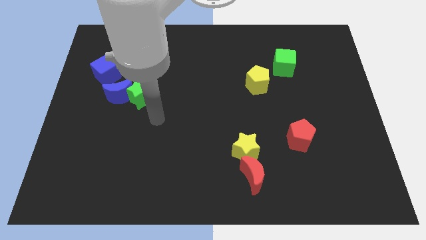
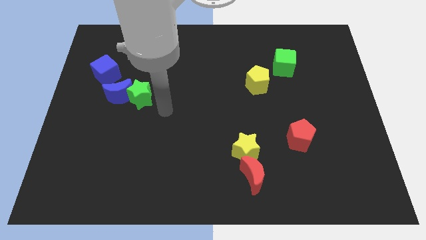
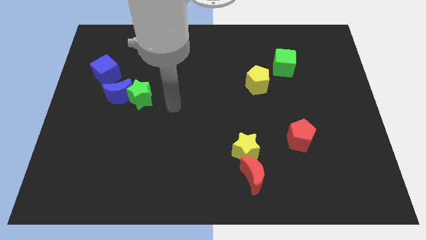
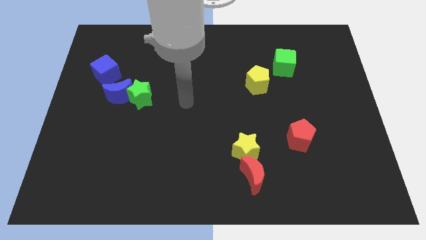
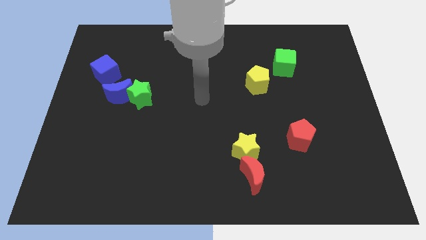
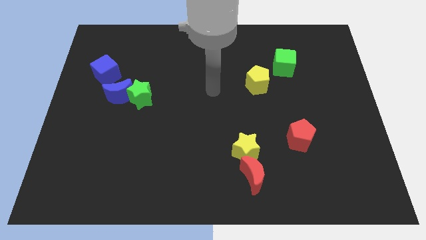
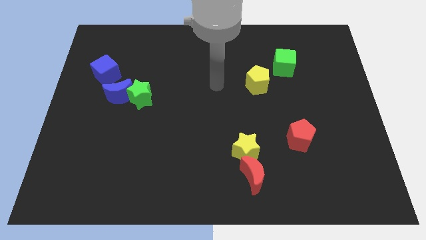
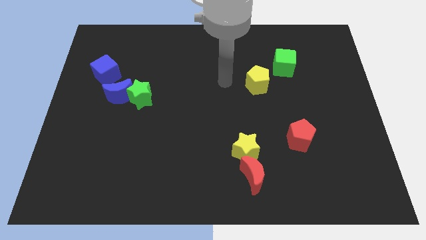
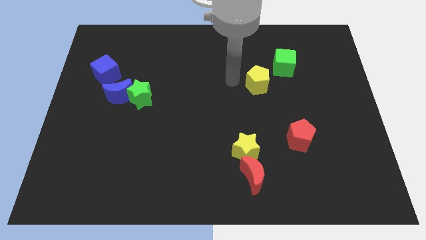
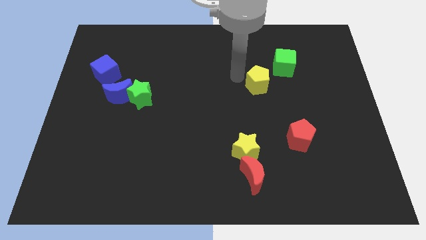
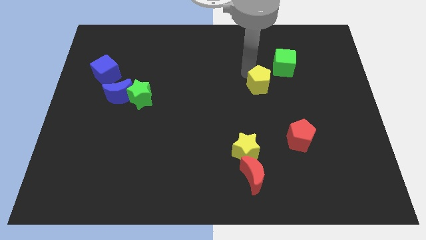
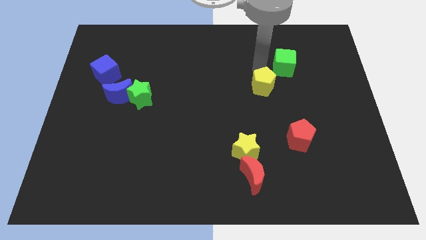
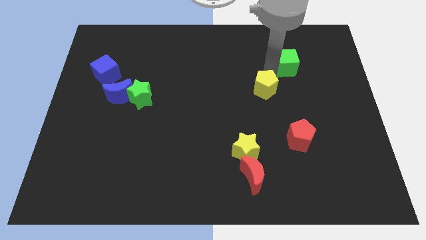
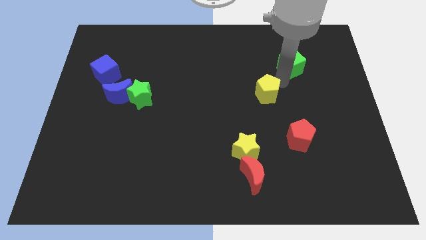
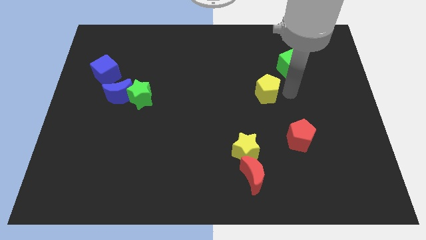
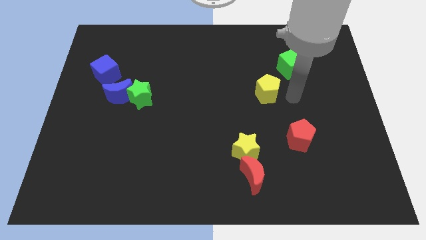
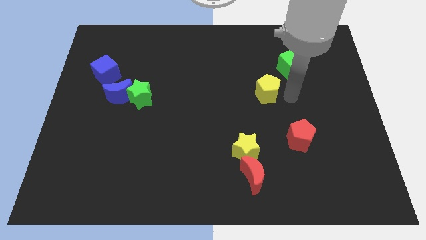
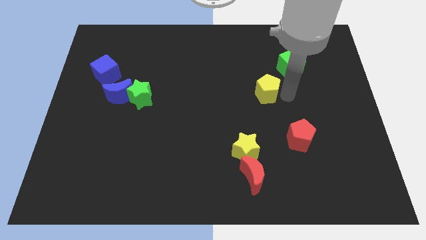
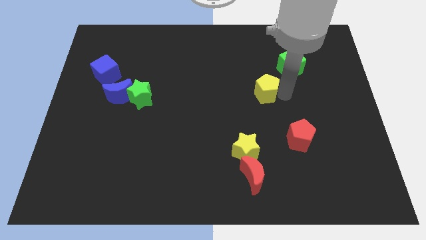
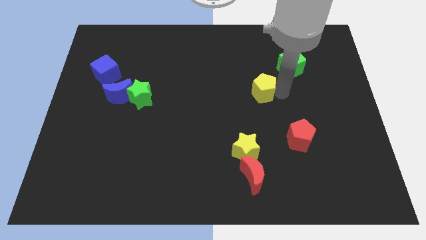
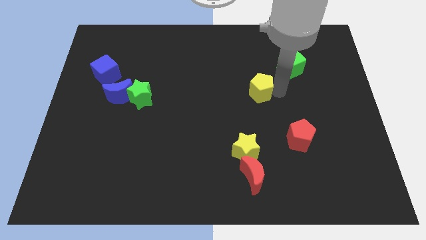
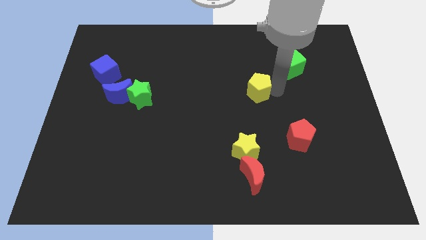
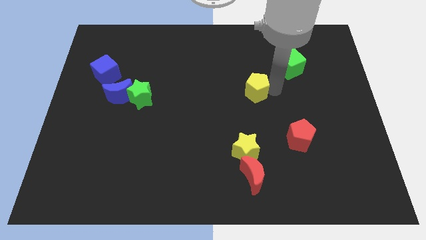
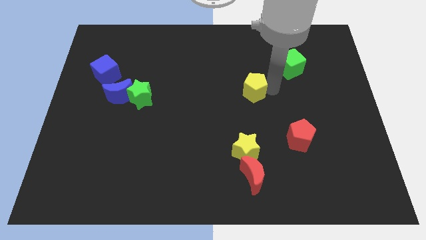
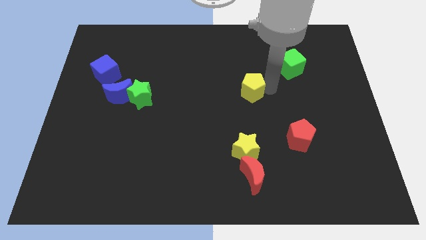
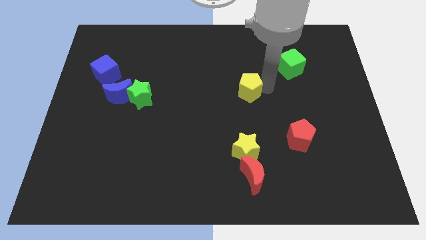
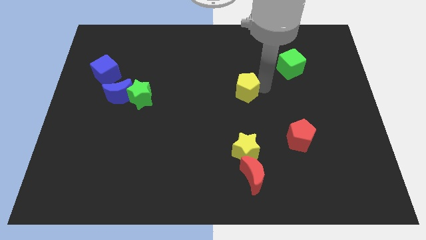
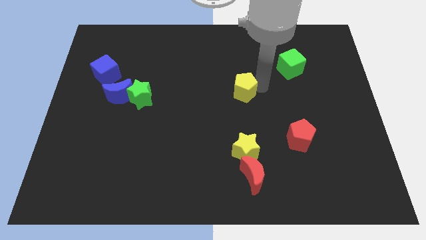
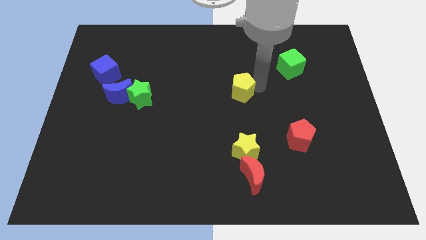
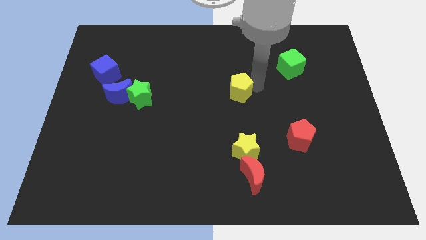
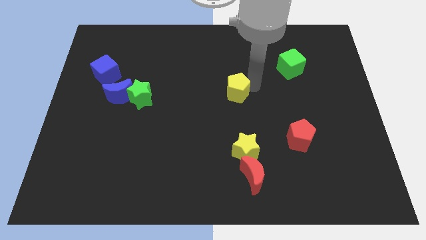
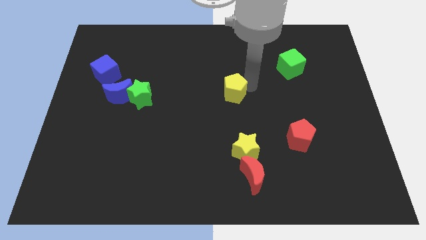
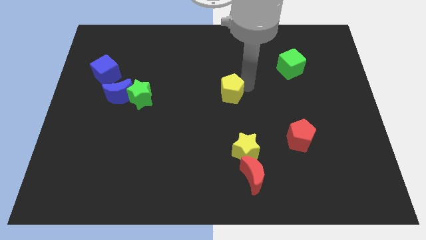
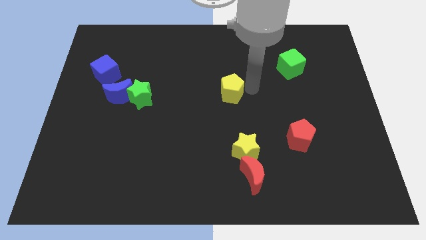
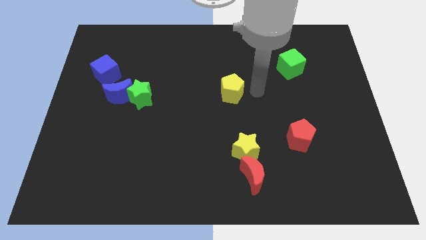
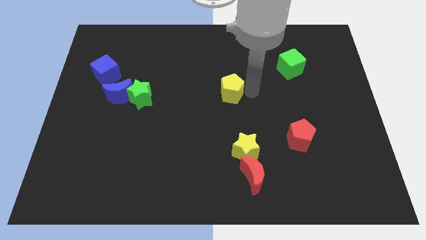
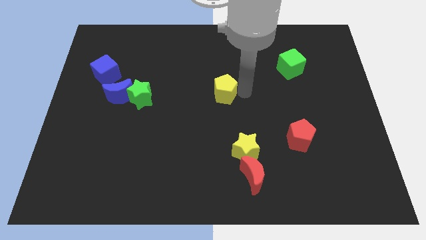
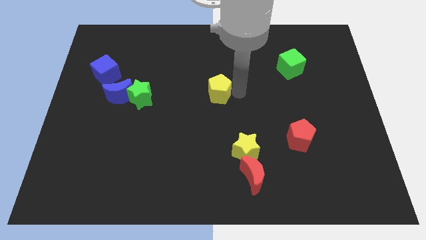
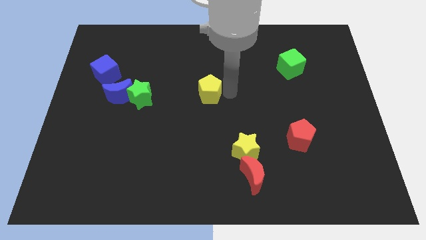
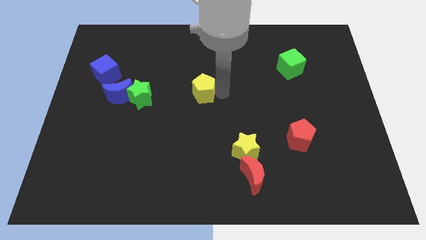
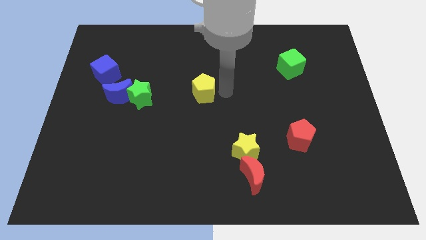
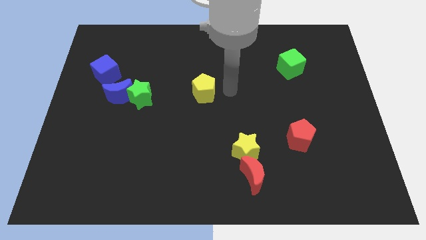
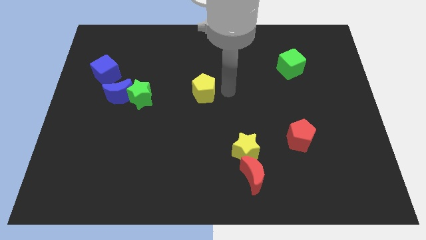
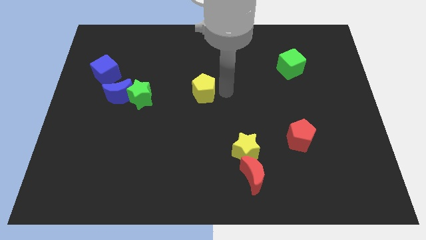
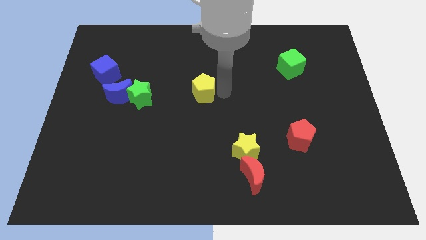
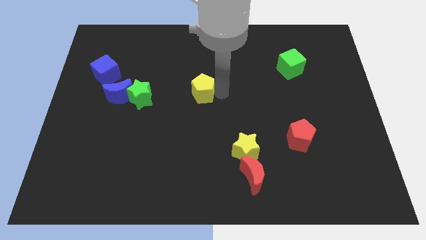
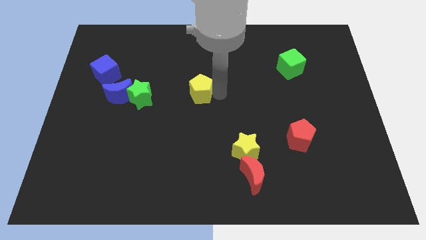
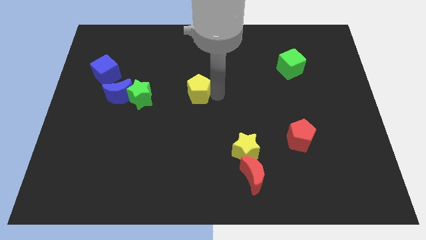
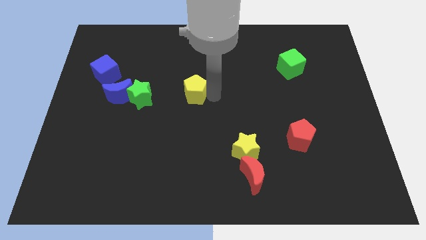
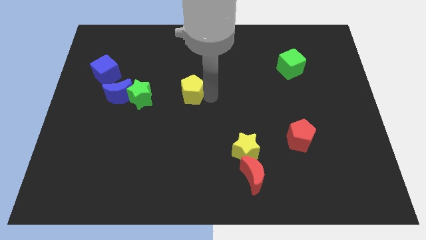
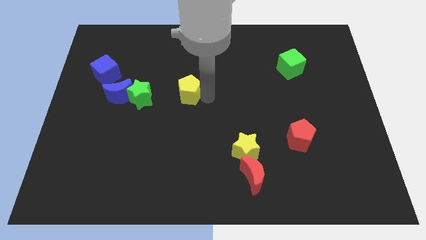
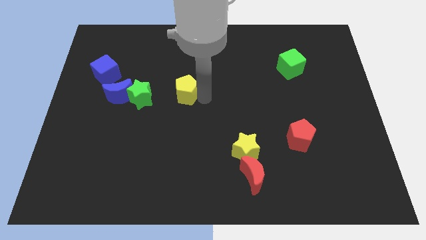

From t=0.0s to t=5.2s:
move the yellow pentagon to the right side of the blue moon

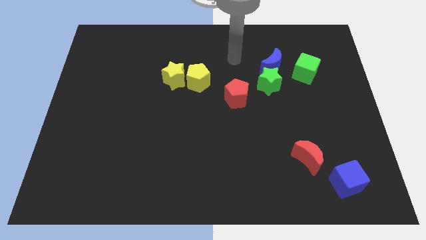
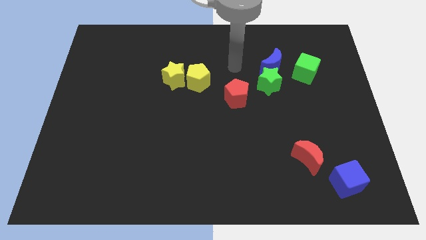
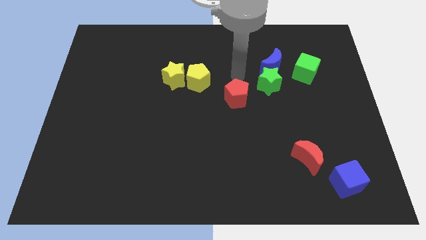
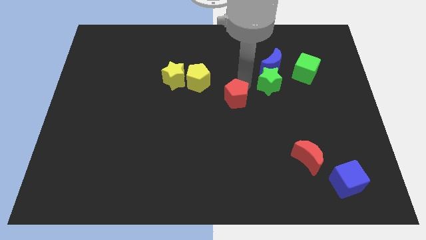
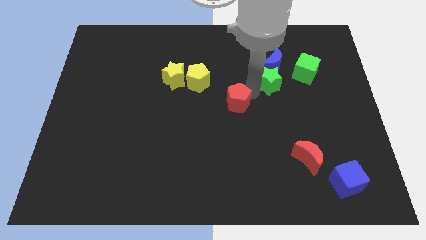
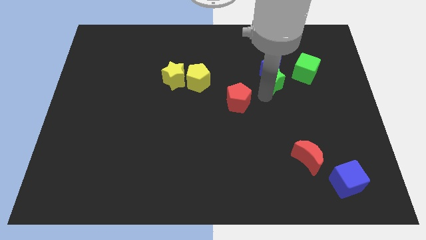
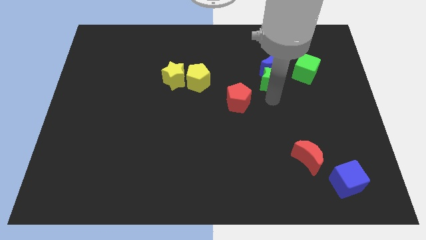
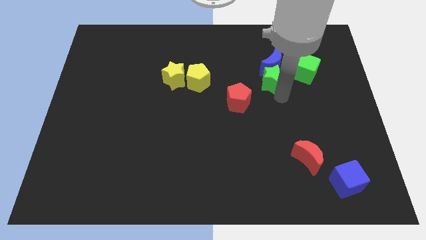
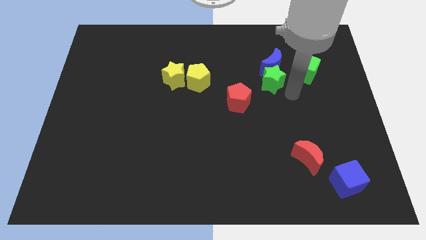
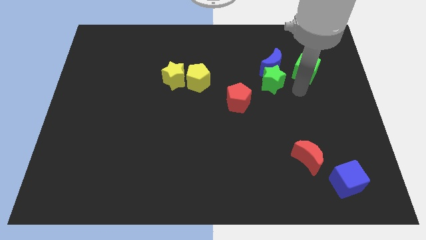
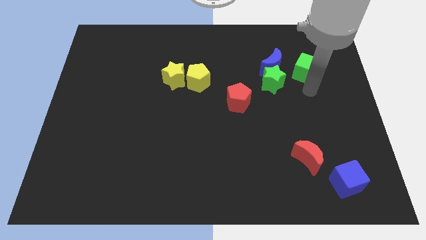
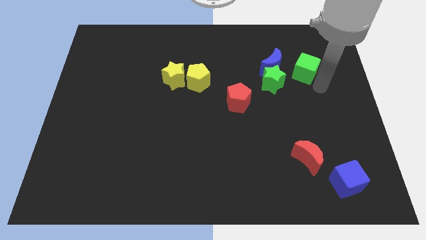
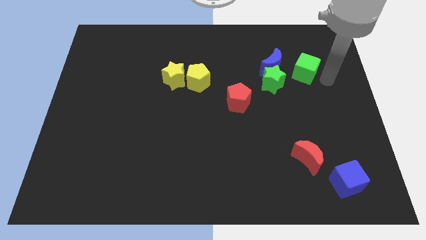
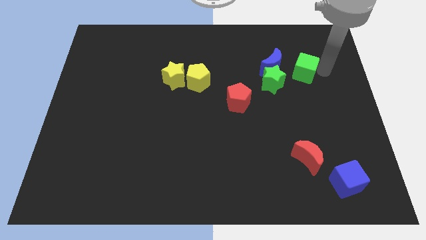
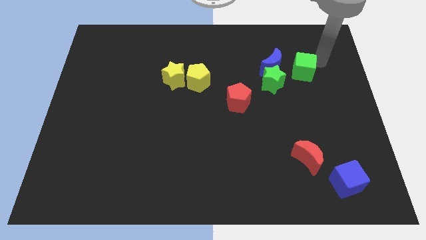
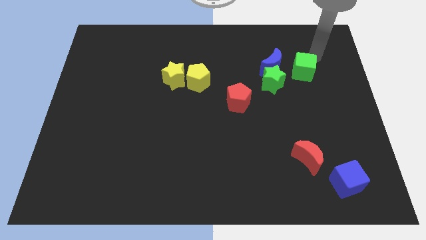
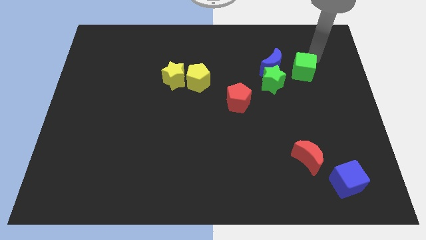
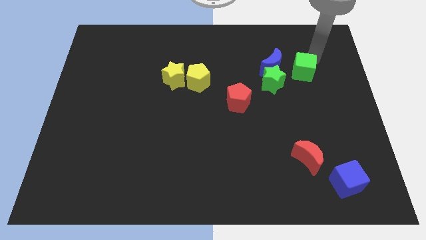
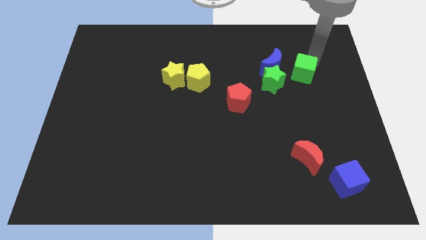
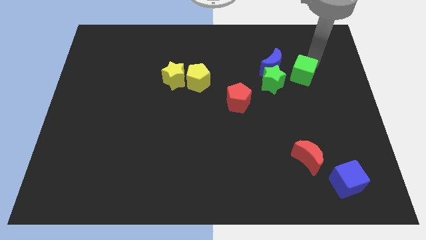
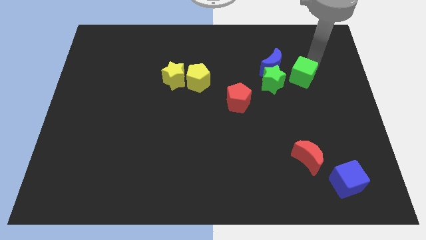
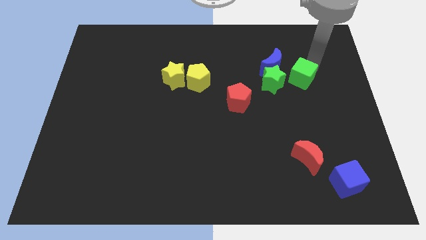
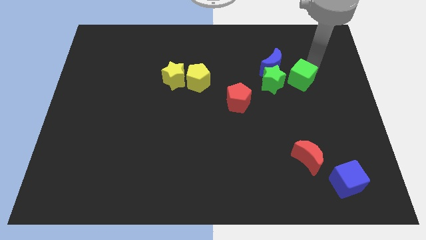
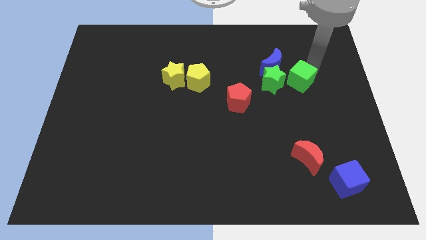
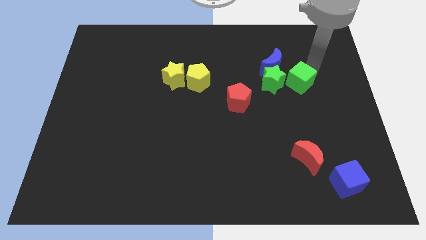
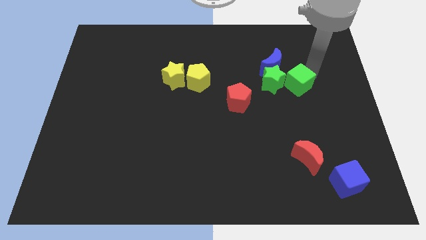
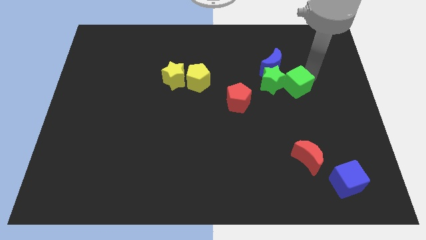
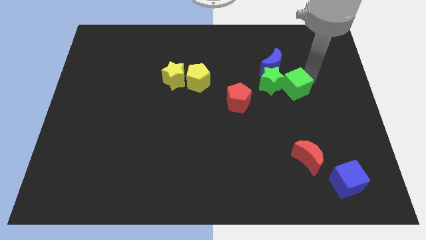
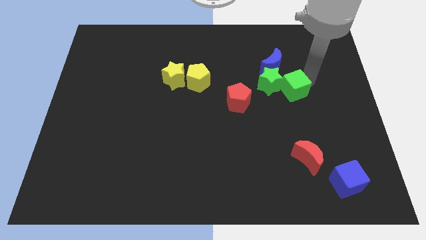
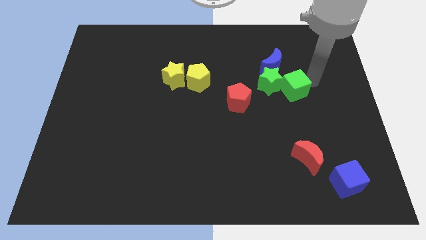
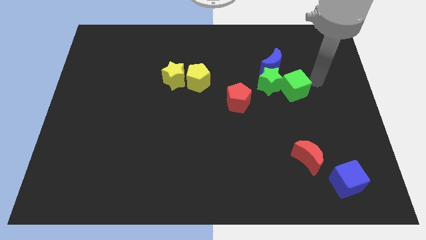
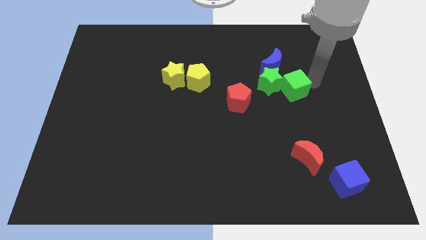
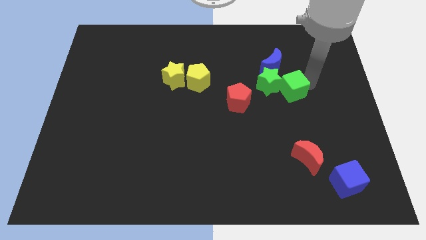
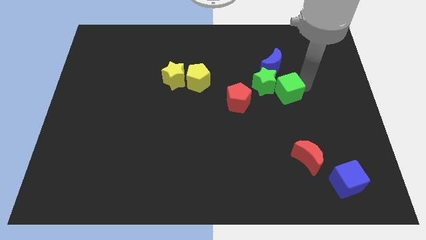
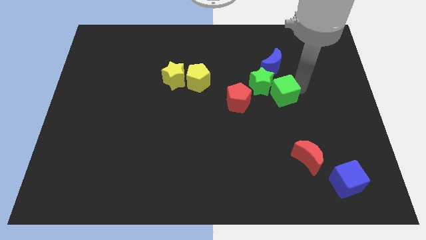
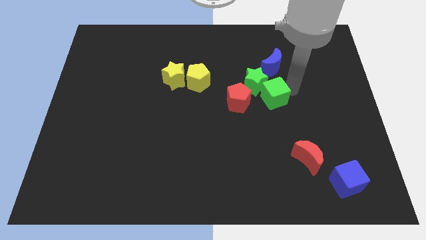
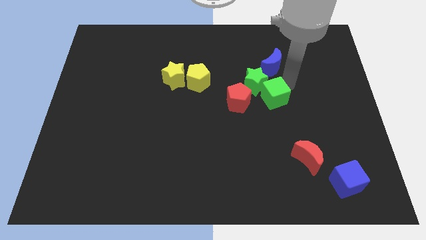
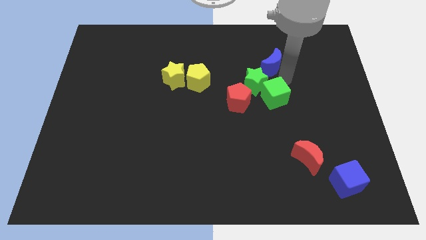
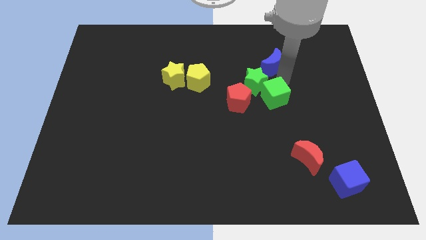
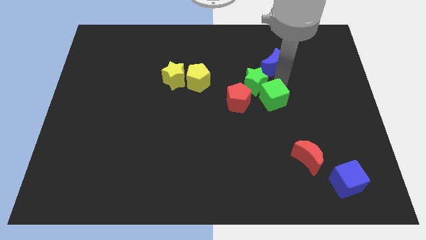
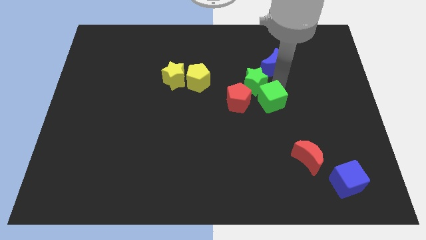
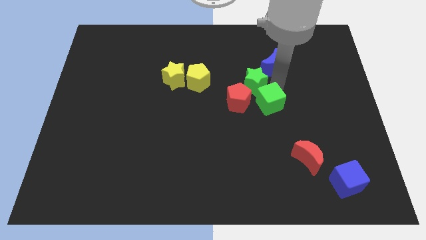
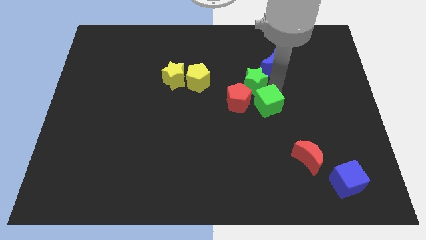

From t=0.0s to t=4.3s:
move the green cube to the bottom right side of the red pentagon
